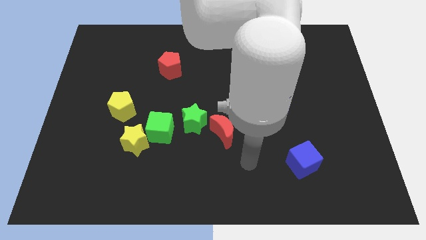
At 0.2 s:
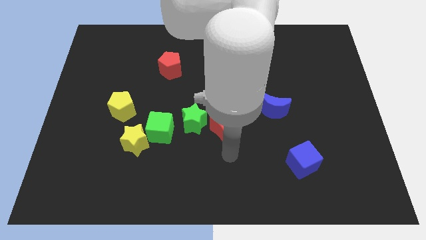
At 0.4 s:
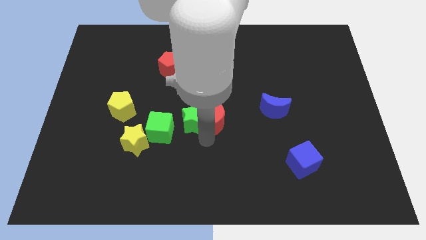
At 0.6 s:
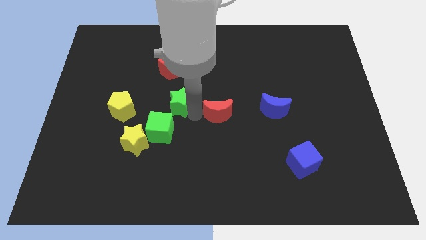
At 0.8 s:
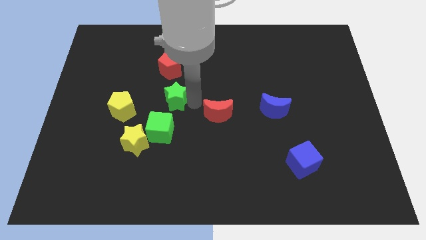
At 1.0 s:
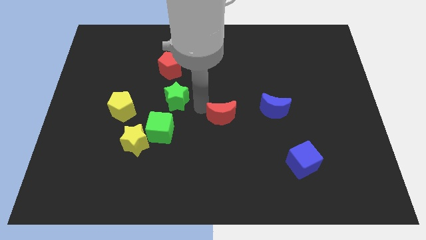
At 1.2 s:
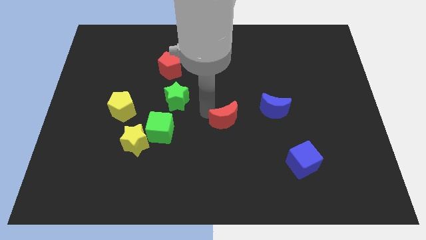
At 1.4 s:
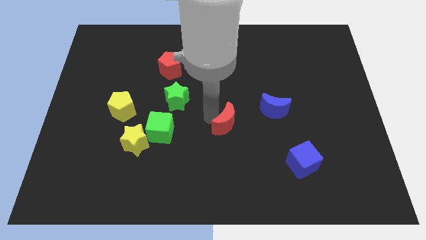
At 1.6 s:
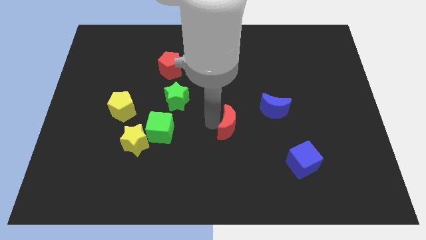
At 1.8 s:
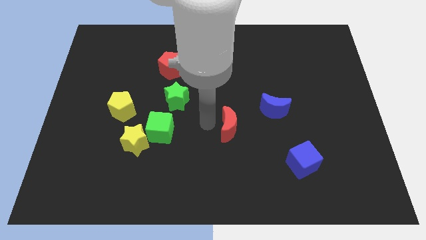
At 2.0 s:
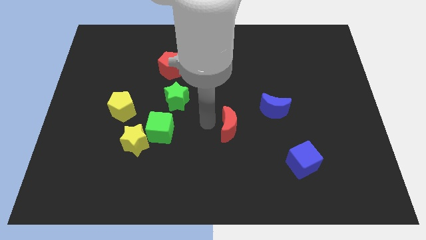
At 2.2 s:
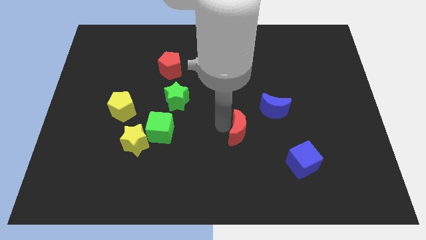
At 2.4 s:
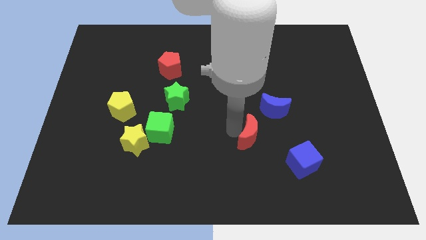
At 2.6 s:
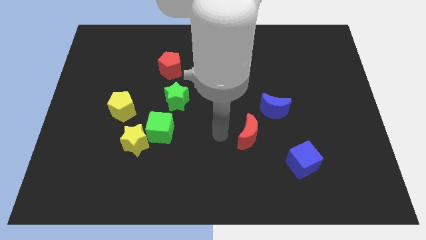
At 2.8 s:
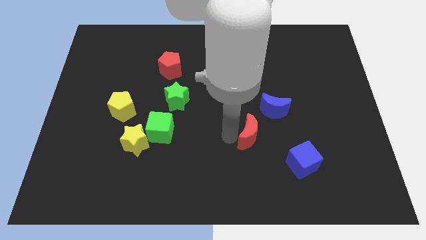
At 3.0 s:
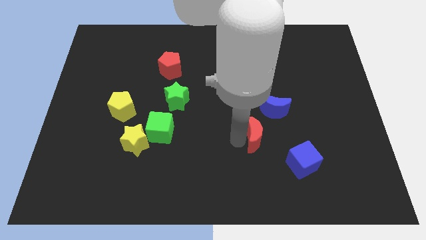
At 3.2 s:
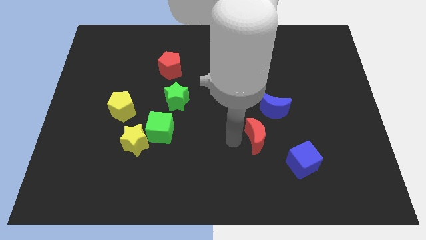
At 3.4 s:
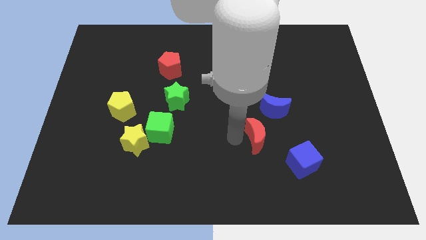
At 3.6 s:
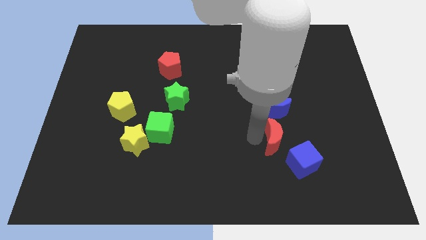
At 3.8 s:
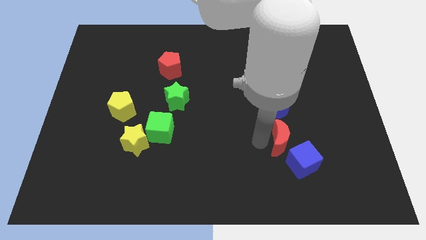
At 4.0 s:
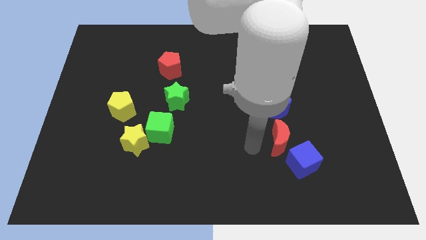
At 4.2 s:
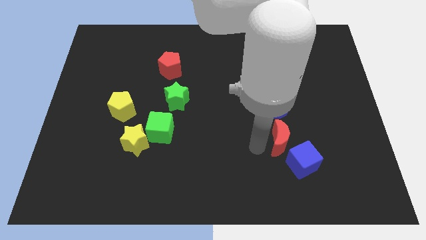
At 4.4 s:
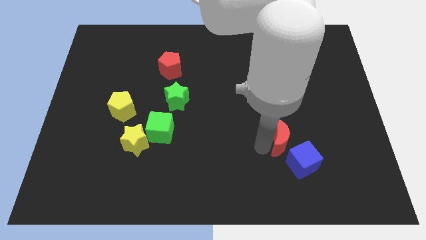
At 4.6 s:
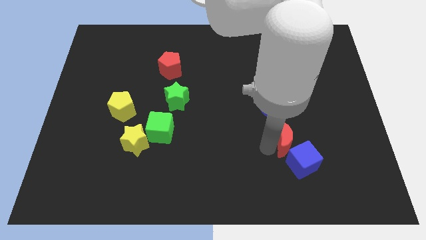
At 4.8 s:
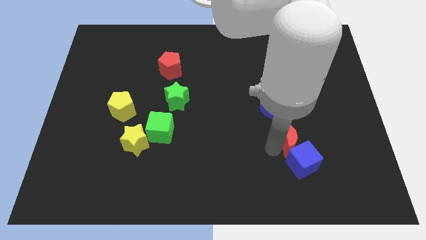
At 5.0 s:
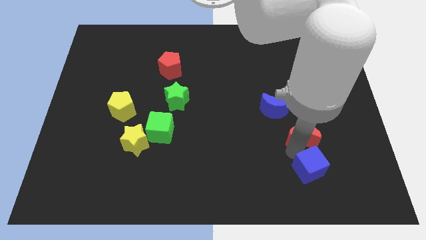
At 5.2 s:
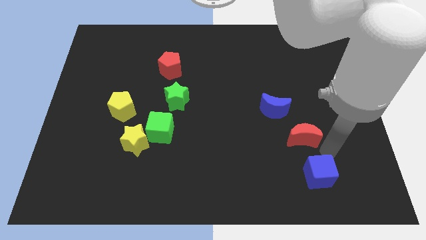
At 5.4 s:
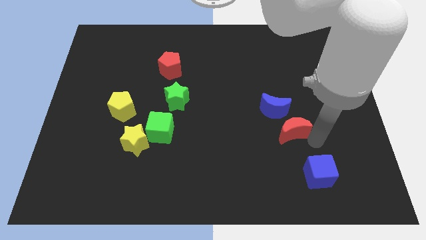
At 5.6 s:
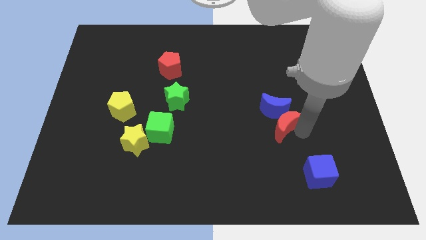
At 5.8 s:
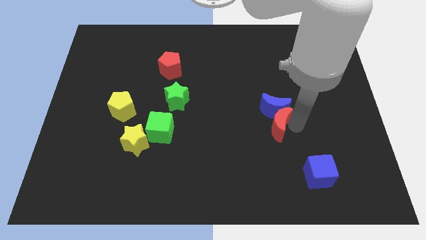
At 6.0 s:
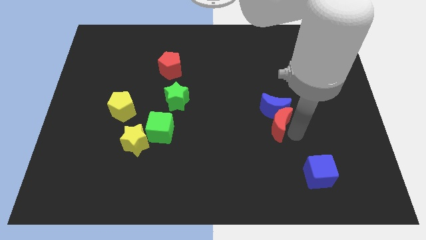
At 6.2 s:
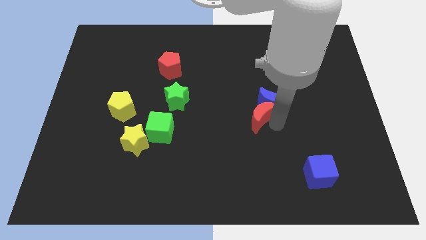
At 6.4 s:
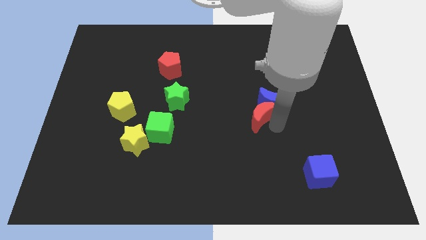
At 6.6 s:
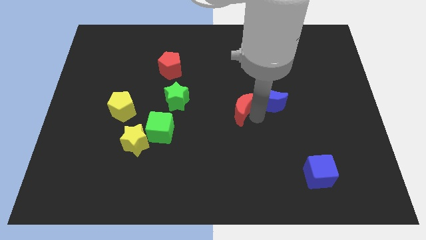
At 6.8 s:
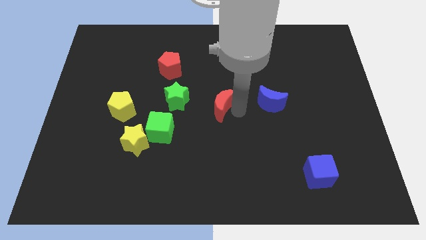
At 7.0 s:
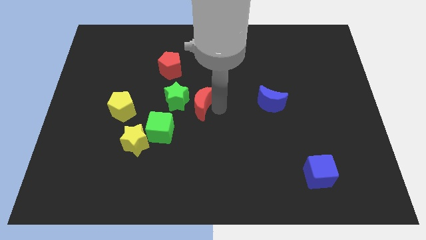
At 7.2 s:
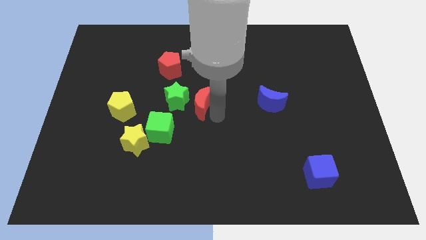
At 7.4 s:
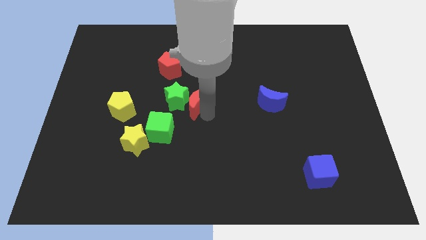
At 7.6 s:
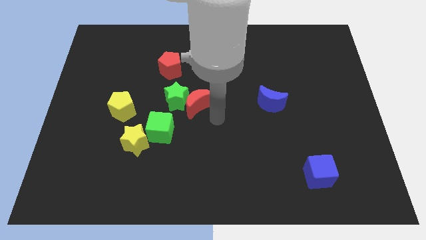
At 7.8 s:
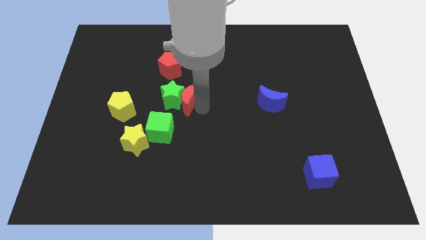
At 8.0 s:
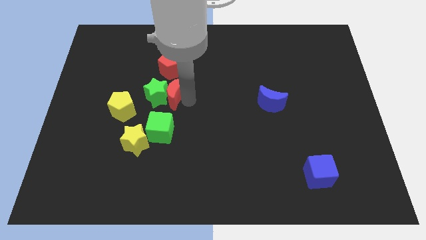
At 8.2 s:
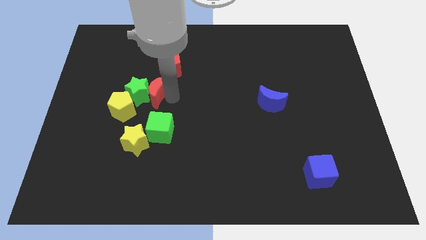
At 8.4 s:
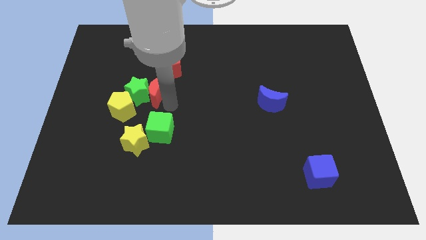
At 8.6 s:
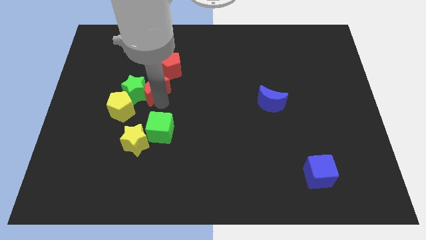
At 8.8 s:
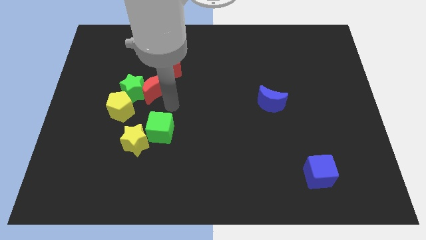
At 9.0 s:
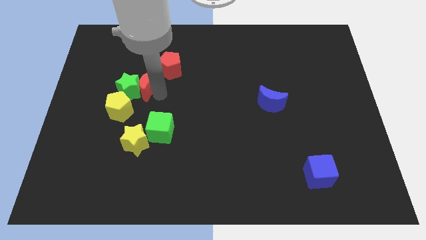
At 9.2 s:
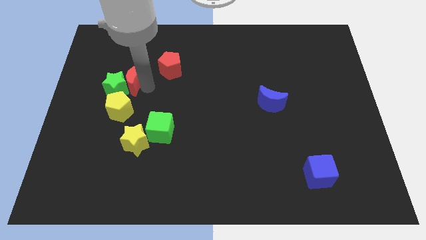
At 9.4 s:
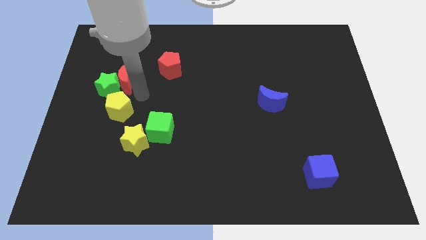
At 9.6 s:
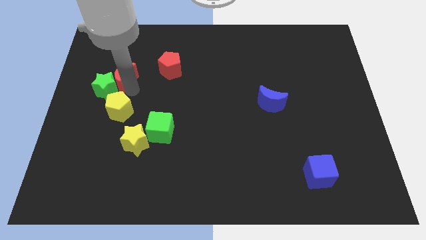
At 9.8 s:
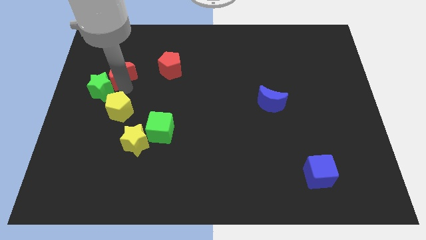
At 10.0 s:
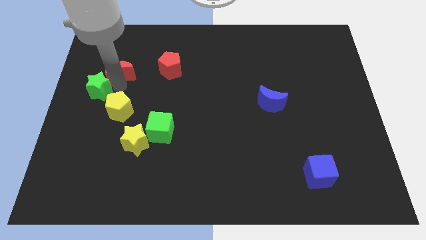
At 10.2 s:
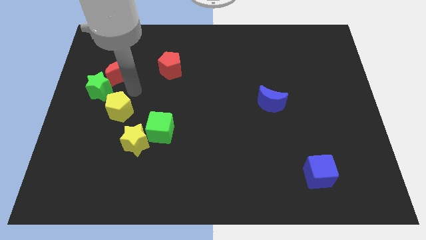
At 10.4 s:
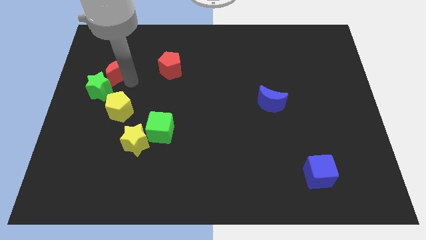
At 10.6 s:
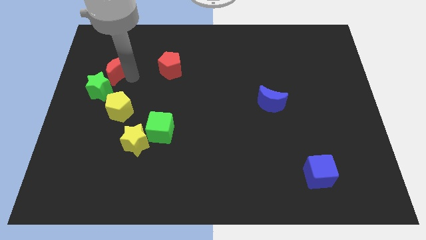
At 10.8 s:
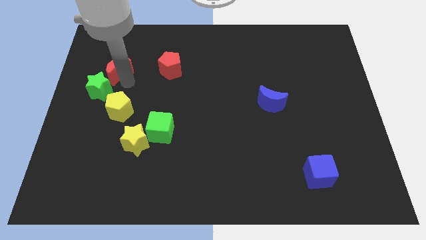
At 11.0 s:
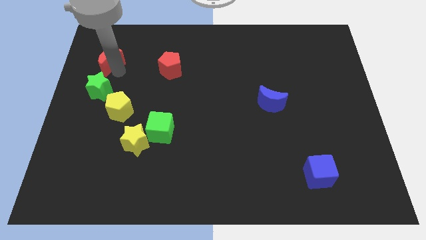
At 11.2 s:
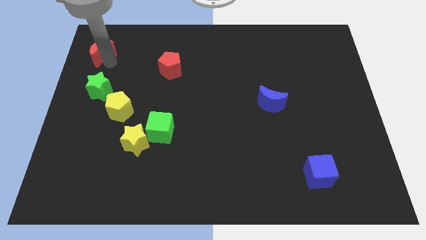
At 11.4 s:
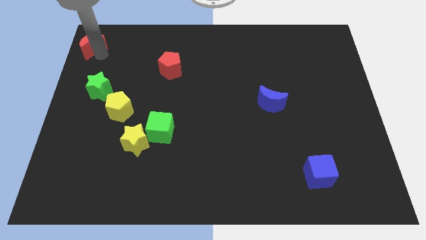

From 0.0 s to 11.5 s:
slide the red moon to the top left
